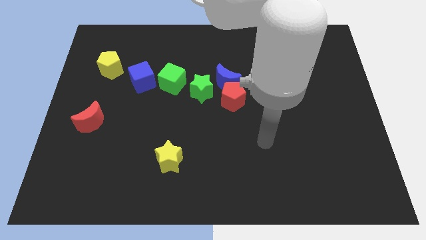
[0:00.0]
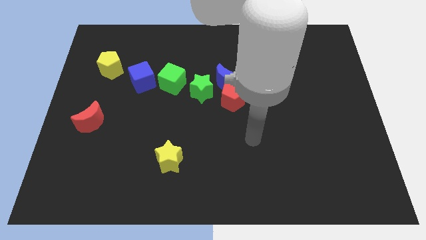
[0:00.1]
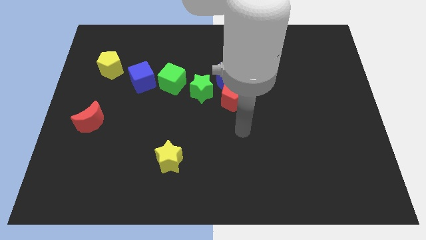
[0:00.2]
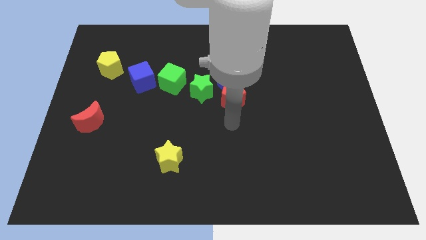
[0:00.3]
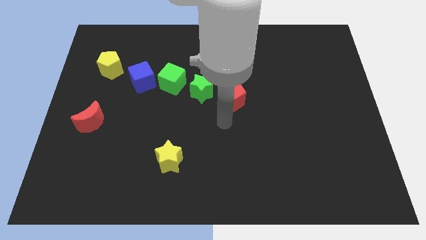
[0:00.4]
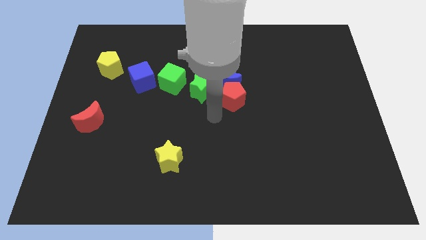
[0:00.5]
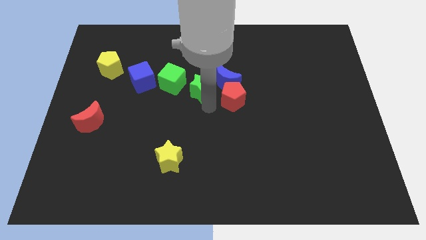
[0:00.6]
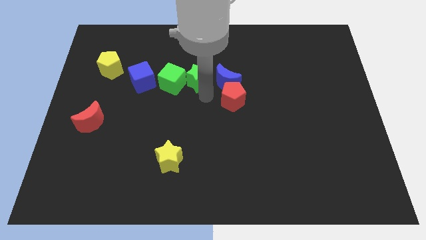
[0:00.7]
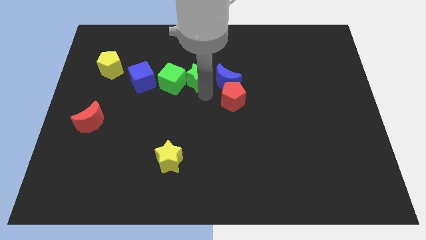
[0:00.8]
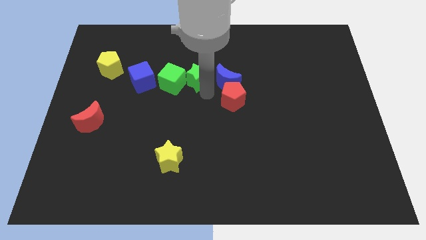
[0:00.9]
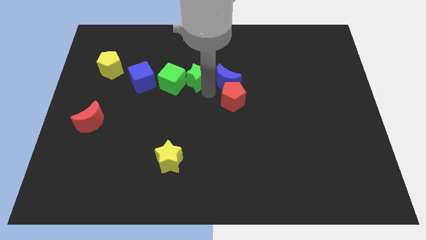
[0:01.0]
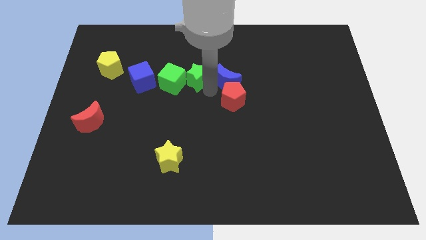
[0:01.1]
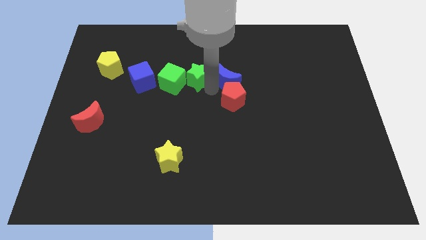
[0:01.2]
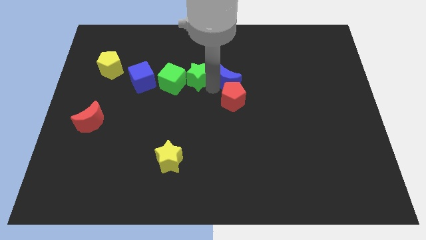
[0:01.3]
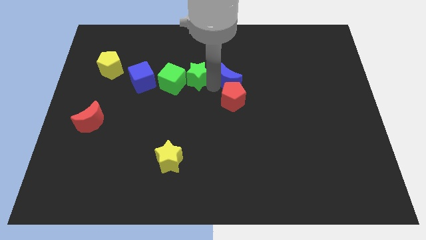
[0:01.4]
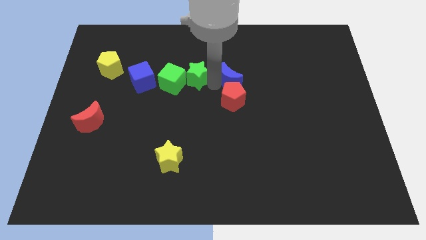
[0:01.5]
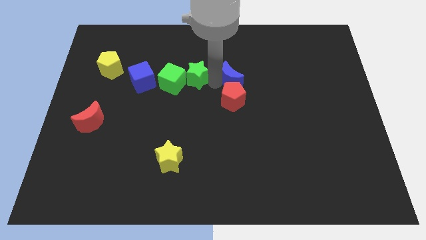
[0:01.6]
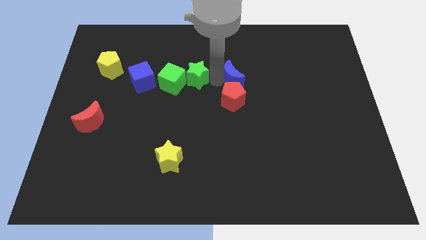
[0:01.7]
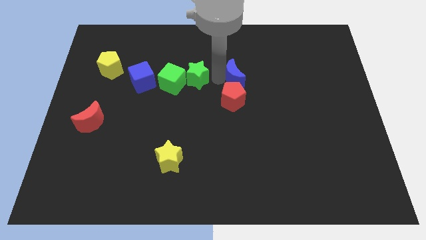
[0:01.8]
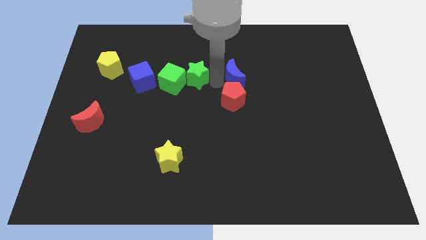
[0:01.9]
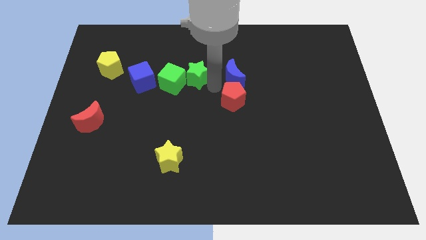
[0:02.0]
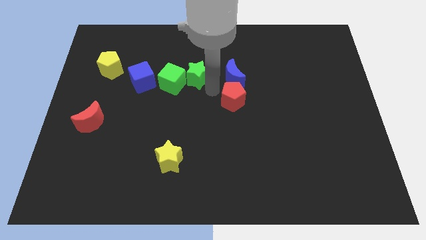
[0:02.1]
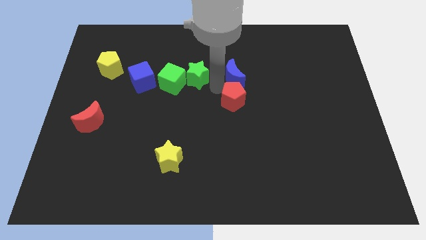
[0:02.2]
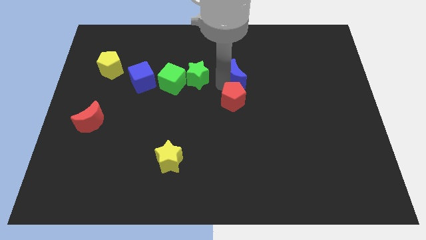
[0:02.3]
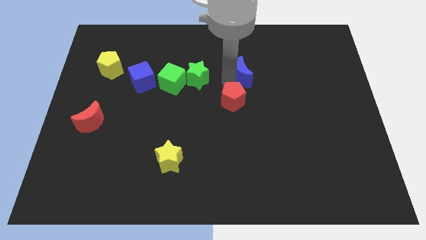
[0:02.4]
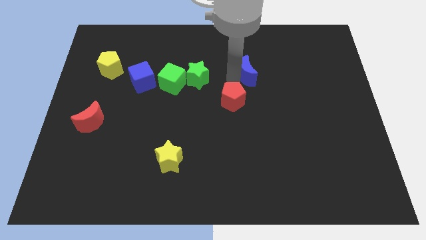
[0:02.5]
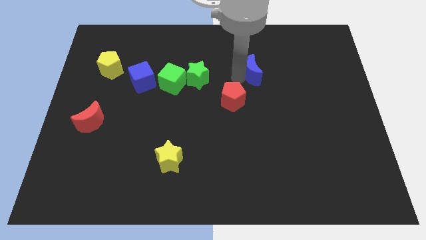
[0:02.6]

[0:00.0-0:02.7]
pull the blue moon apart from the red pentagon and green star

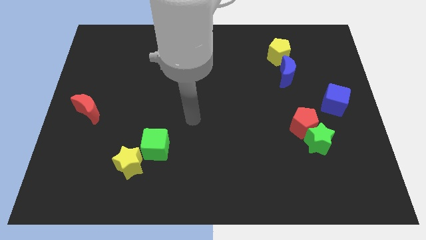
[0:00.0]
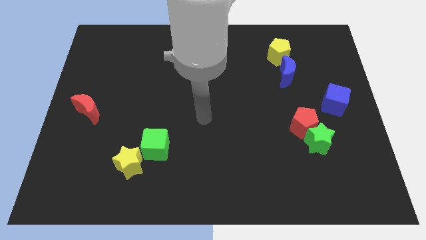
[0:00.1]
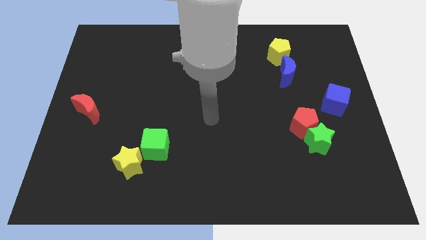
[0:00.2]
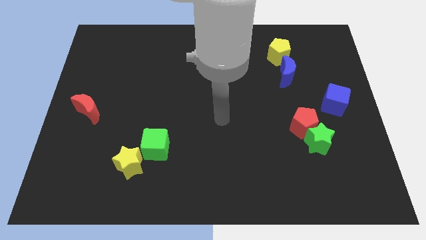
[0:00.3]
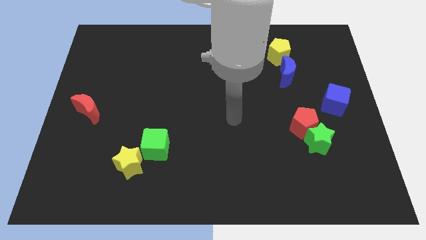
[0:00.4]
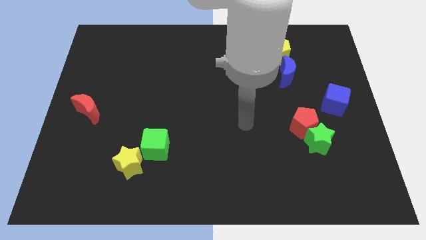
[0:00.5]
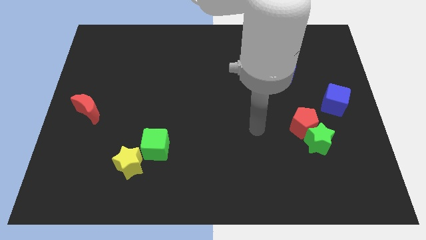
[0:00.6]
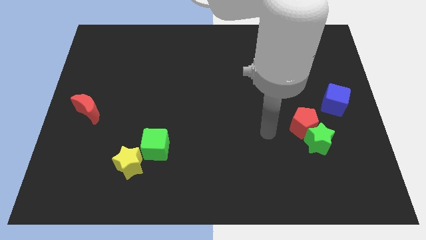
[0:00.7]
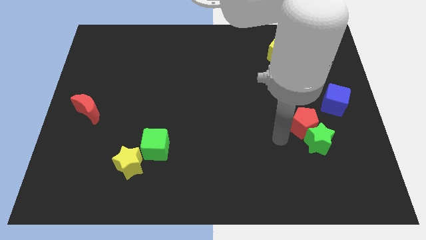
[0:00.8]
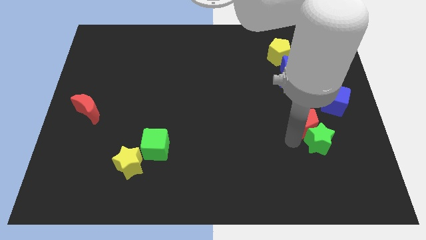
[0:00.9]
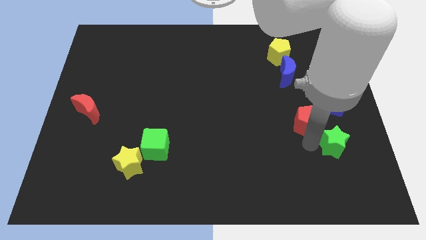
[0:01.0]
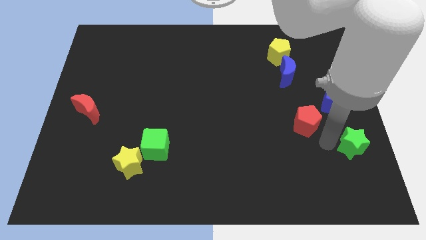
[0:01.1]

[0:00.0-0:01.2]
pull the red pentagon apart from the green star

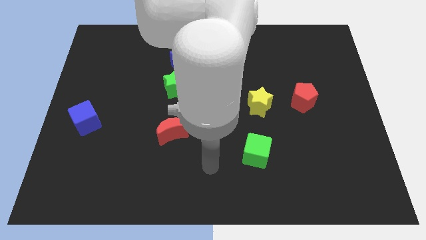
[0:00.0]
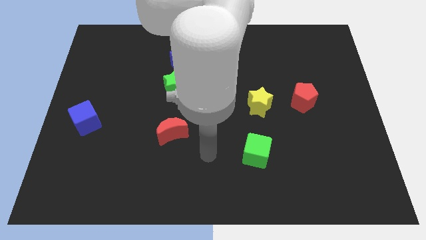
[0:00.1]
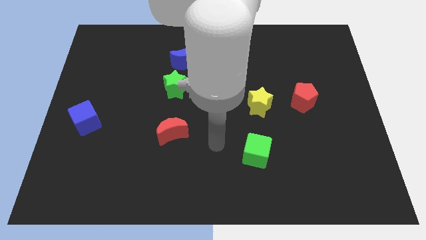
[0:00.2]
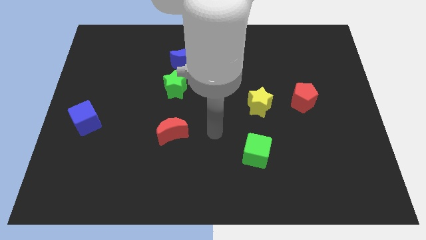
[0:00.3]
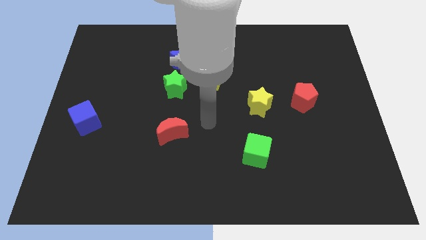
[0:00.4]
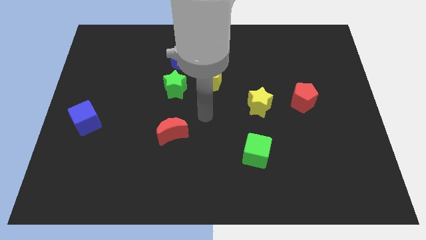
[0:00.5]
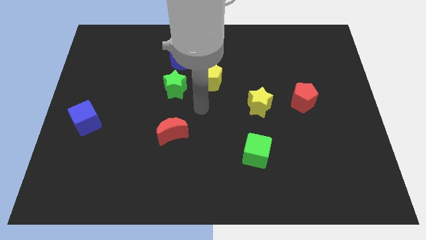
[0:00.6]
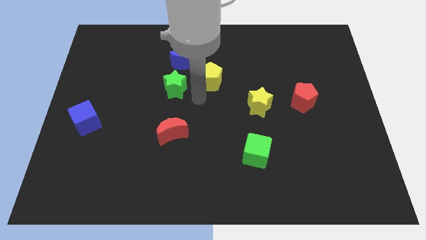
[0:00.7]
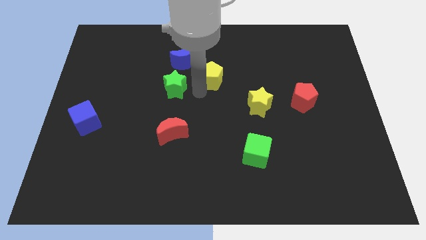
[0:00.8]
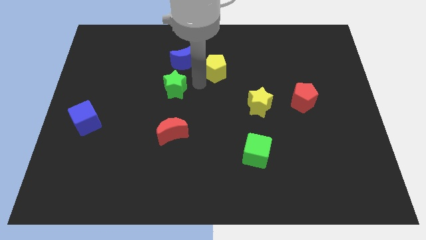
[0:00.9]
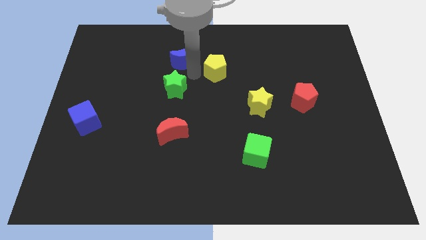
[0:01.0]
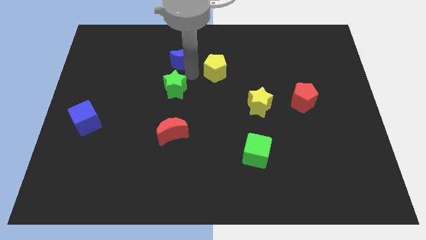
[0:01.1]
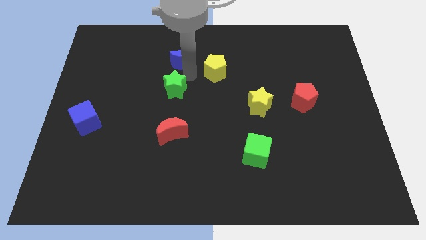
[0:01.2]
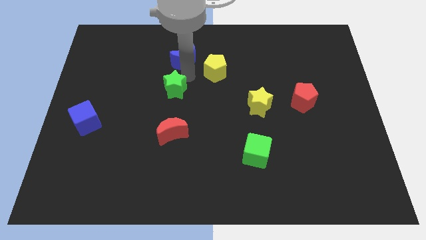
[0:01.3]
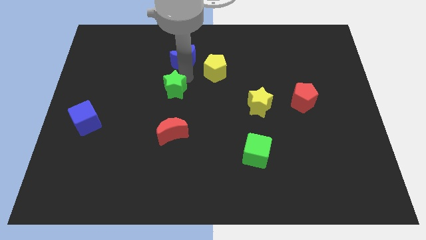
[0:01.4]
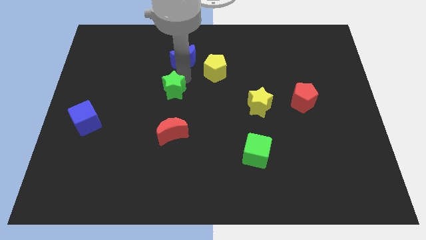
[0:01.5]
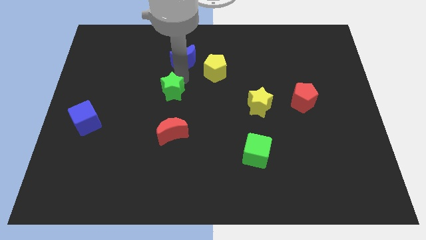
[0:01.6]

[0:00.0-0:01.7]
move the green star away from the yellow pentagon and blue moon

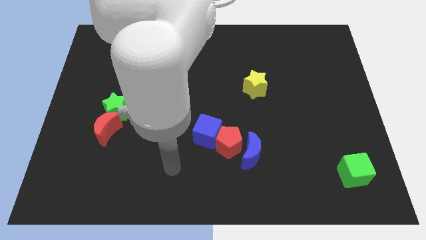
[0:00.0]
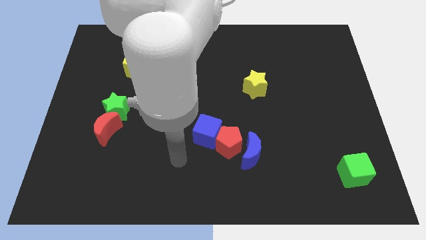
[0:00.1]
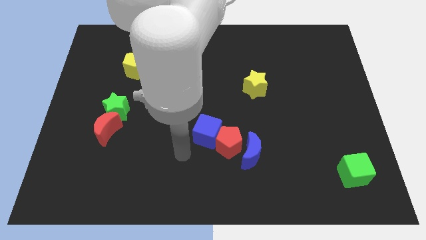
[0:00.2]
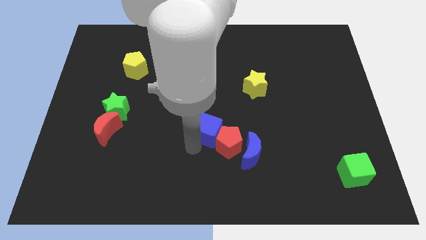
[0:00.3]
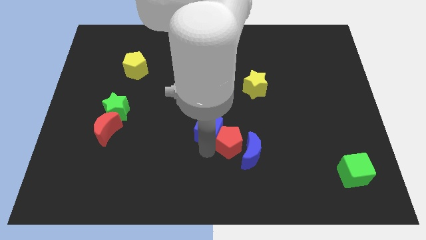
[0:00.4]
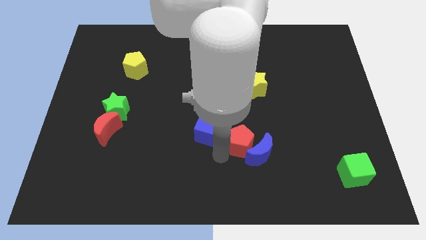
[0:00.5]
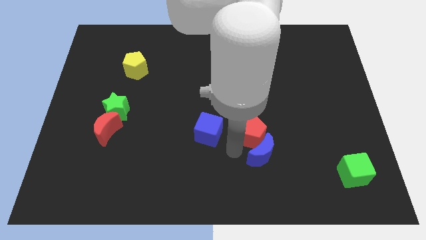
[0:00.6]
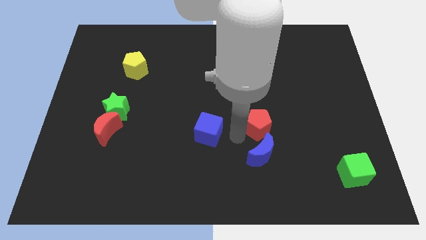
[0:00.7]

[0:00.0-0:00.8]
pull the blue cube apart from the red pentagon

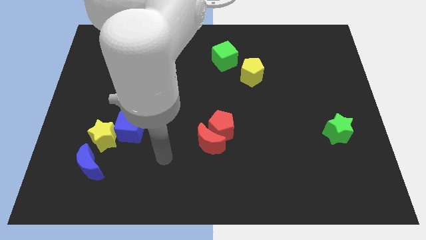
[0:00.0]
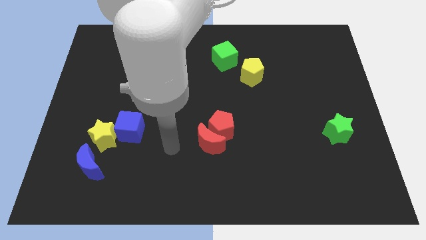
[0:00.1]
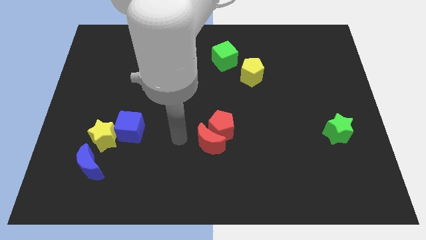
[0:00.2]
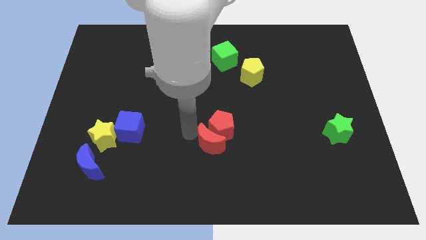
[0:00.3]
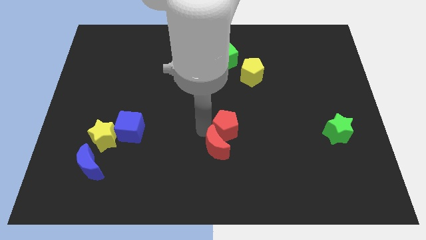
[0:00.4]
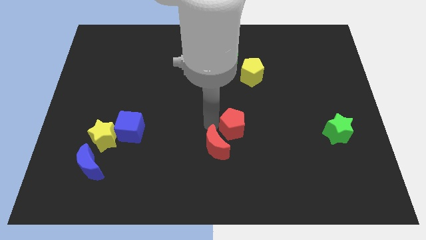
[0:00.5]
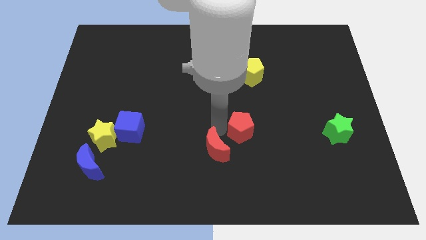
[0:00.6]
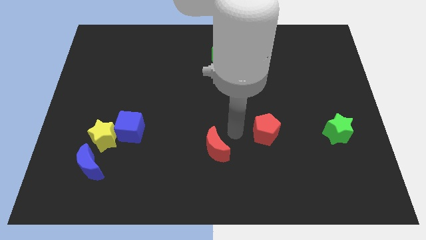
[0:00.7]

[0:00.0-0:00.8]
separate the red moon from the red pentagon

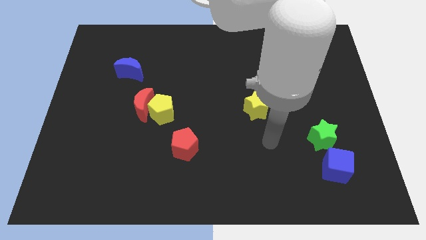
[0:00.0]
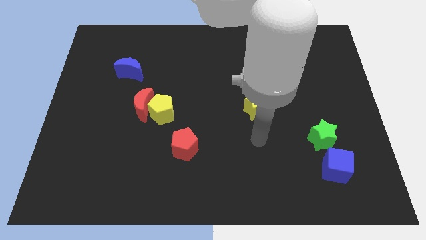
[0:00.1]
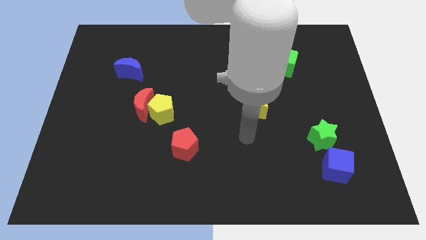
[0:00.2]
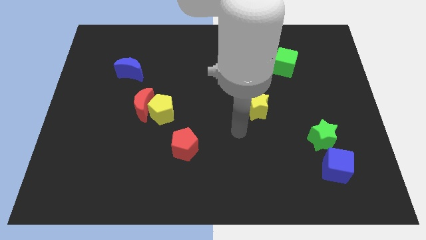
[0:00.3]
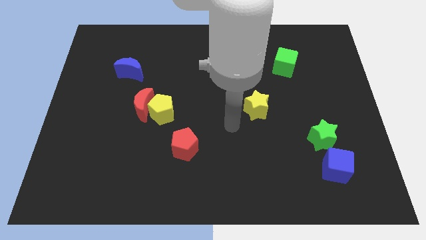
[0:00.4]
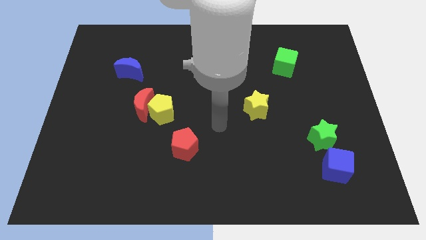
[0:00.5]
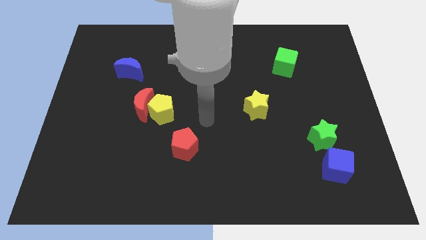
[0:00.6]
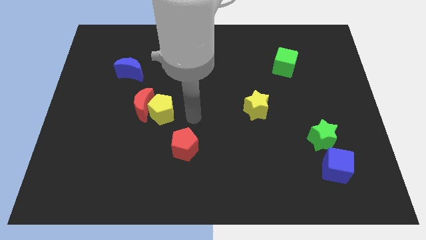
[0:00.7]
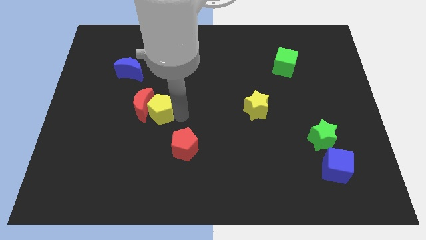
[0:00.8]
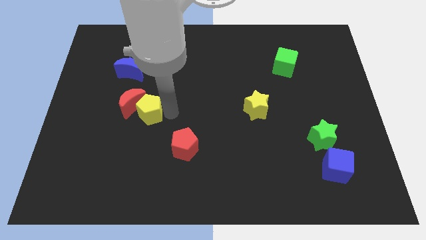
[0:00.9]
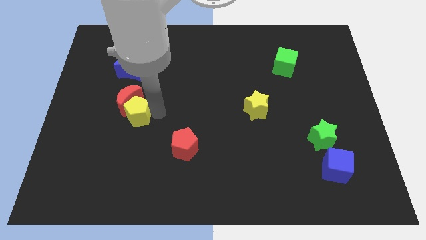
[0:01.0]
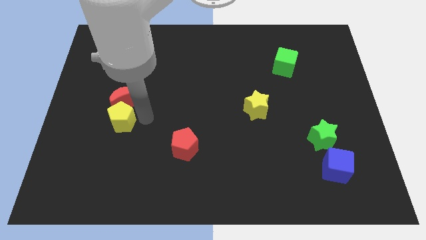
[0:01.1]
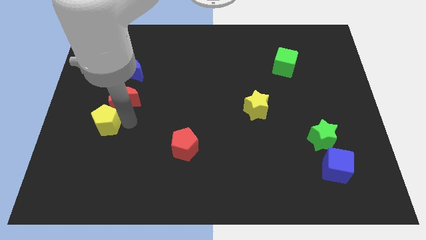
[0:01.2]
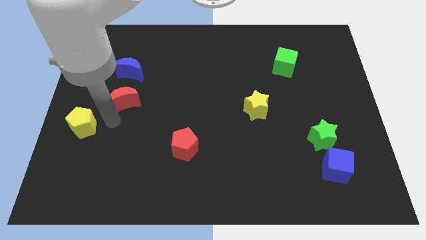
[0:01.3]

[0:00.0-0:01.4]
move the red moon away from the yellow pentagon

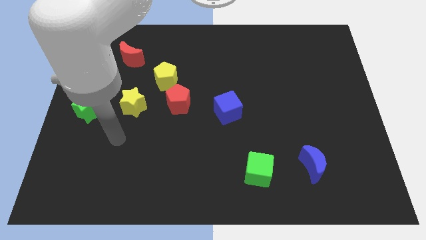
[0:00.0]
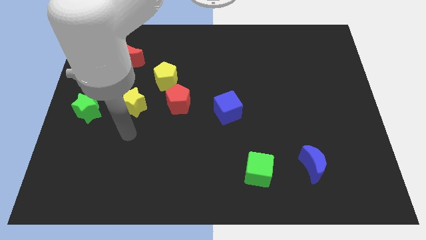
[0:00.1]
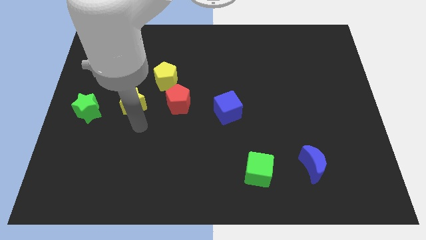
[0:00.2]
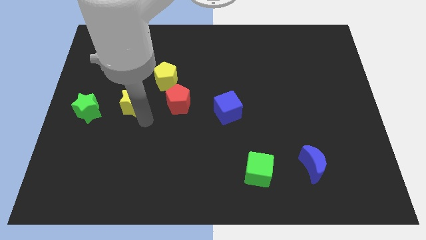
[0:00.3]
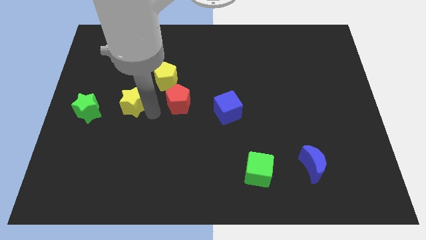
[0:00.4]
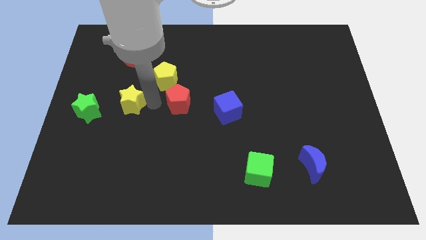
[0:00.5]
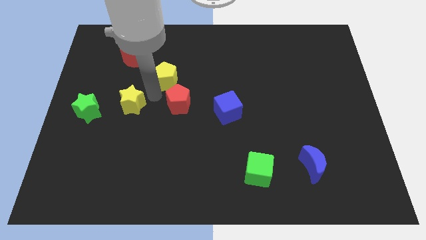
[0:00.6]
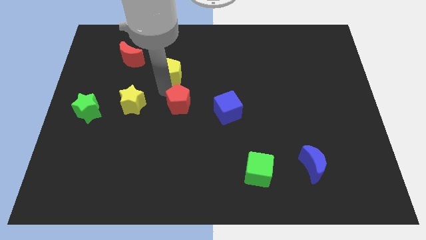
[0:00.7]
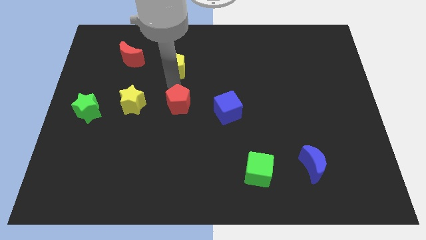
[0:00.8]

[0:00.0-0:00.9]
pull the red pentagon apart from the yellow pentagon

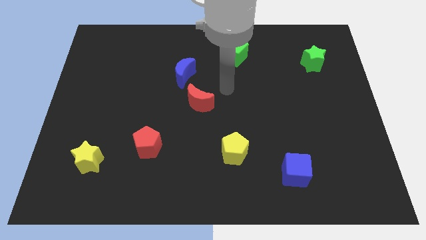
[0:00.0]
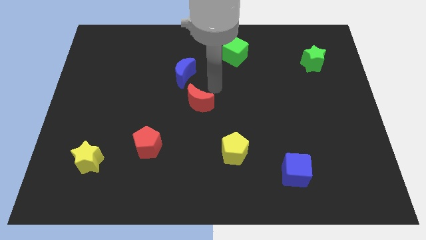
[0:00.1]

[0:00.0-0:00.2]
separate the red moon from the blue moon
